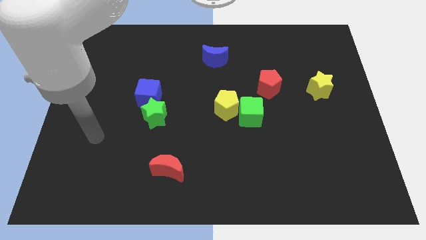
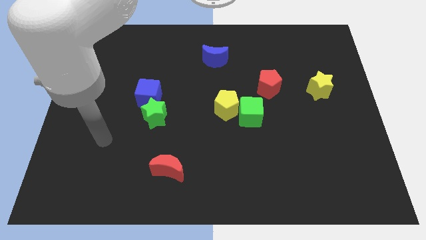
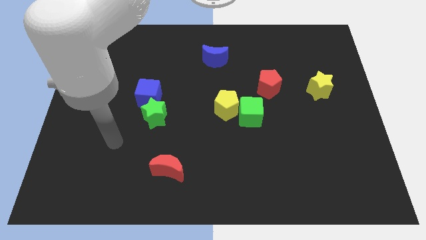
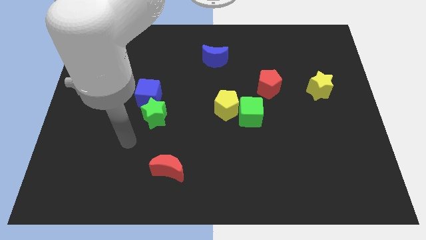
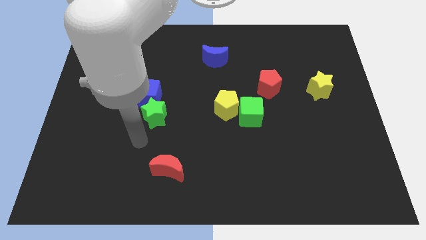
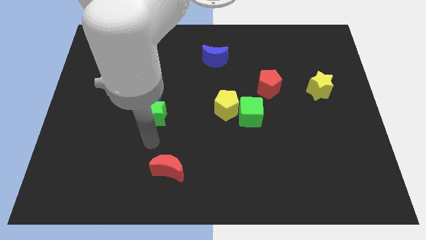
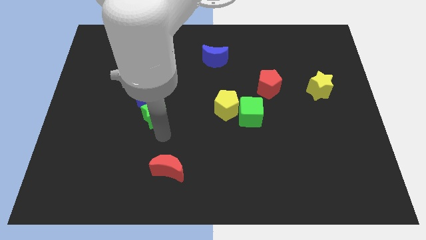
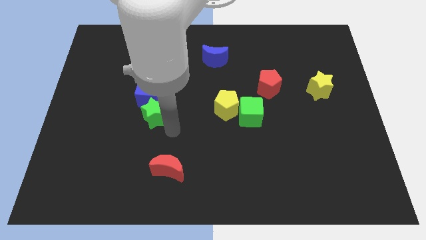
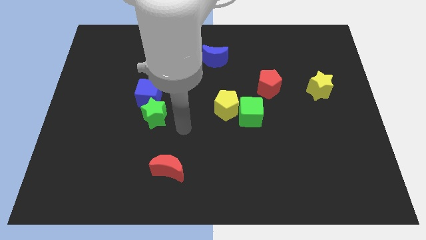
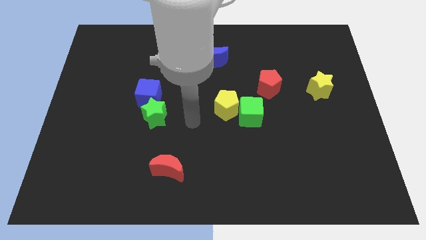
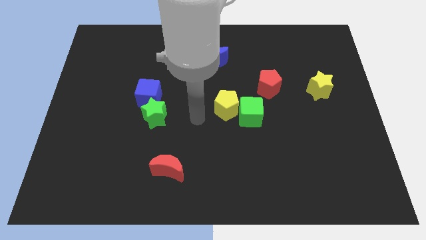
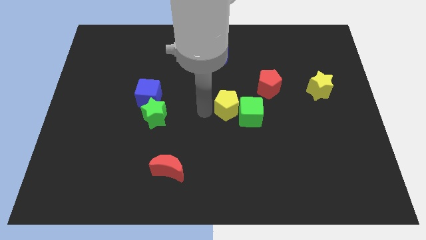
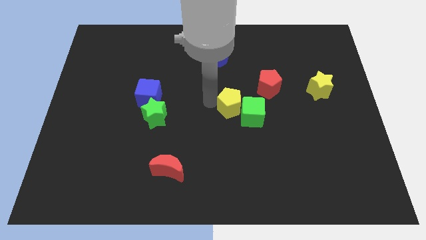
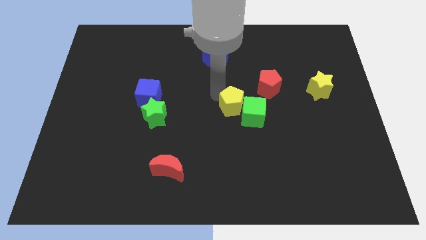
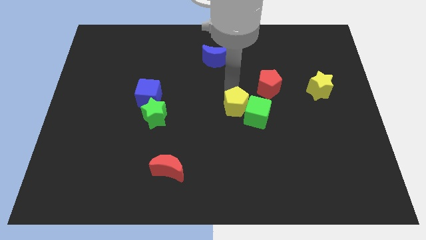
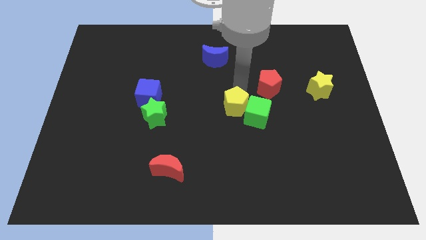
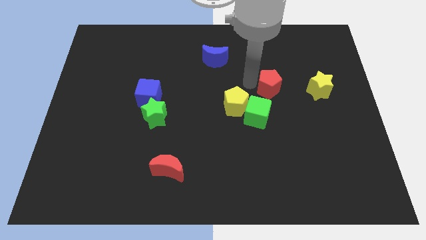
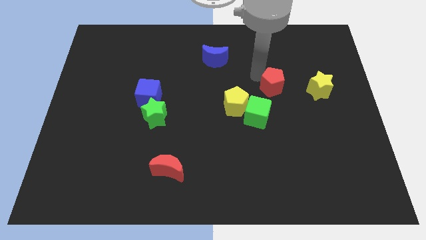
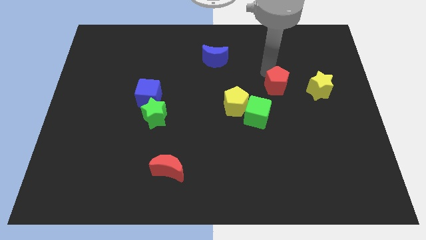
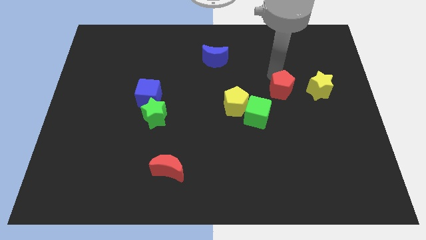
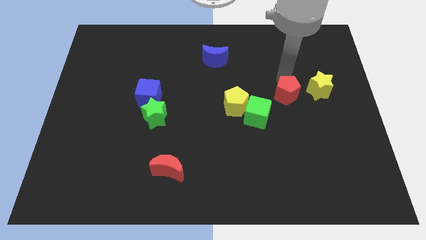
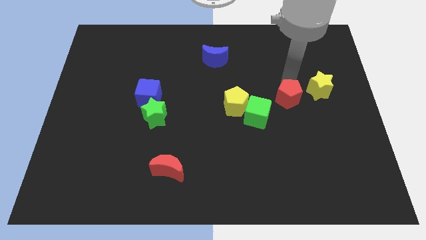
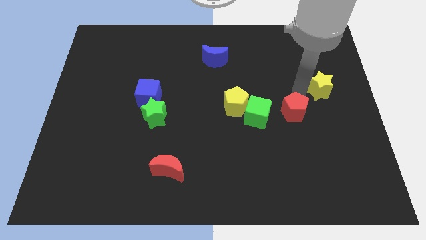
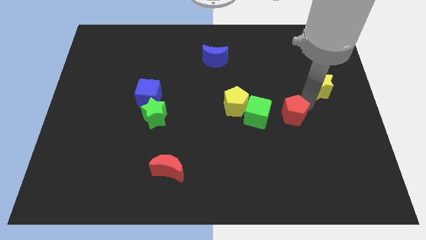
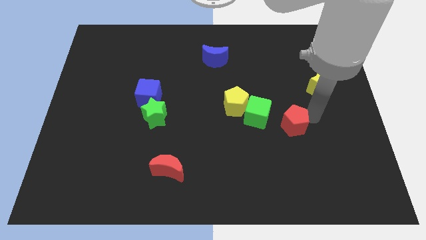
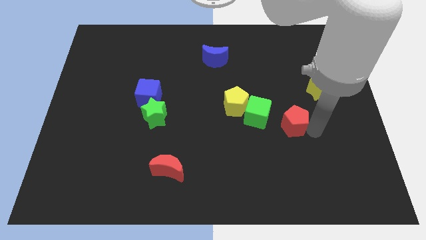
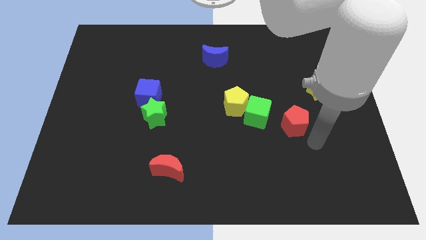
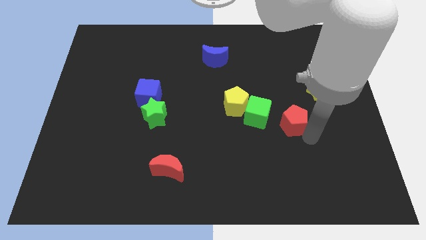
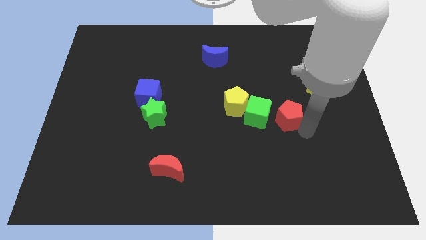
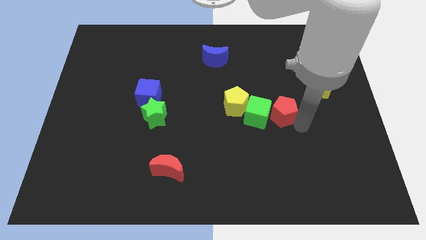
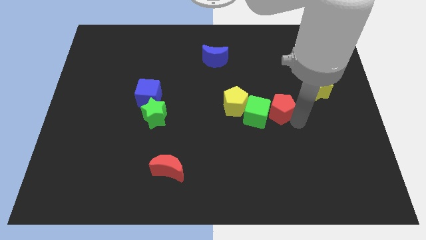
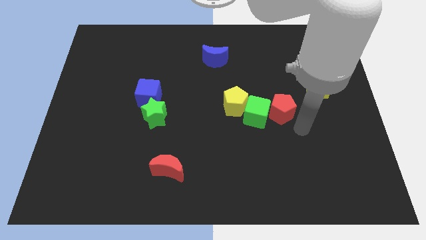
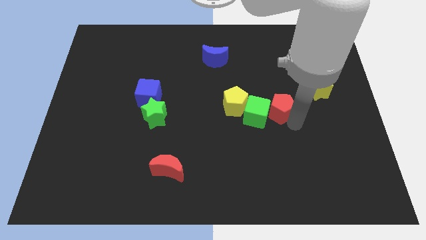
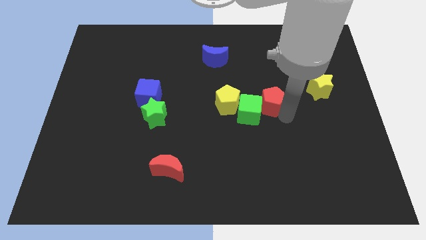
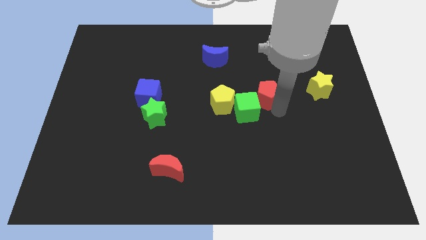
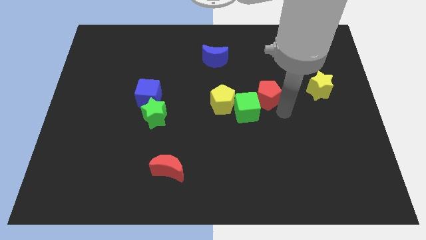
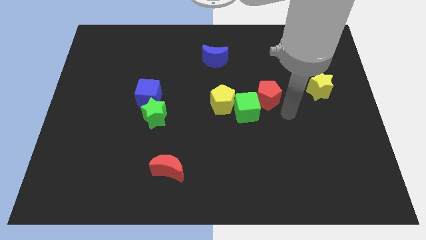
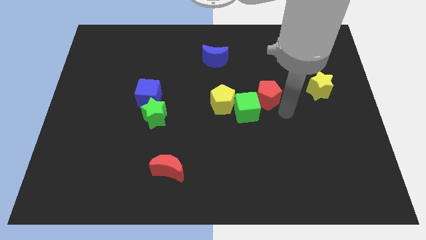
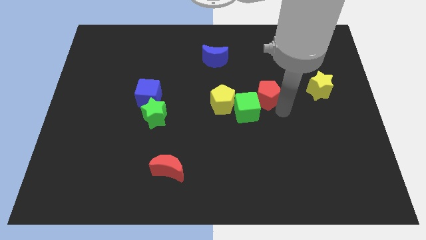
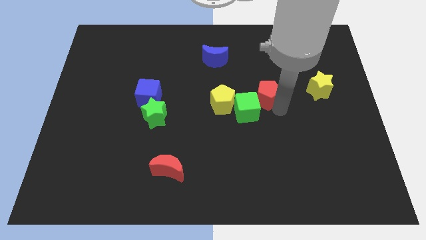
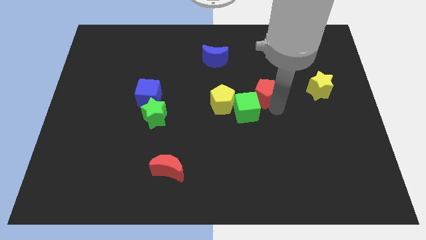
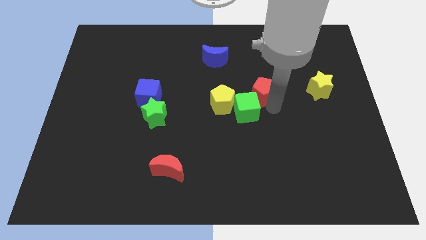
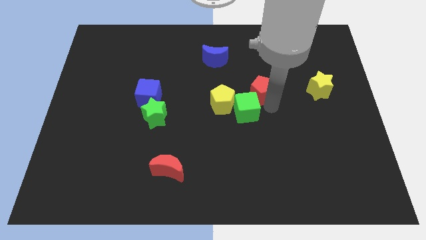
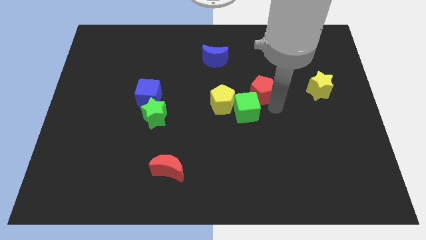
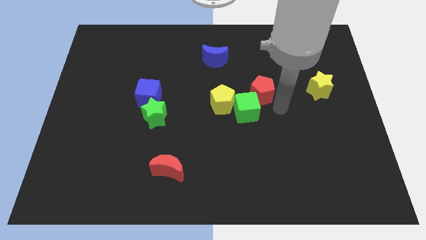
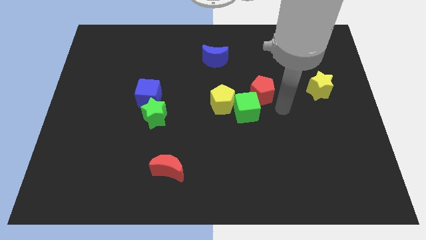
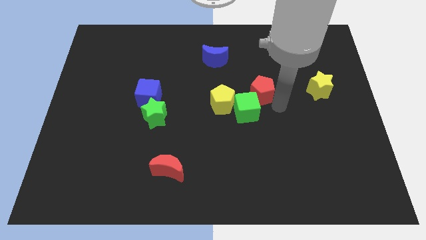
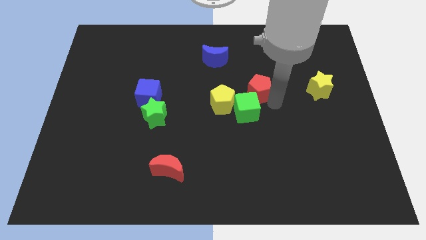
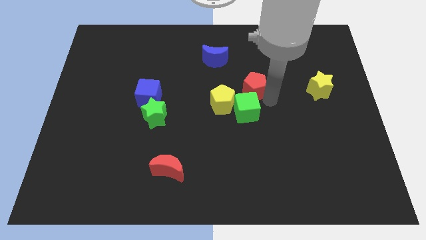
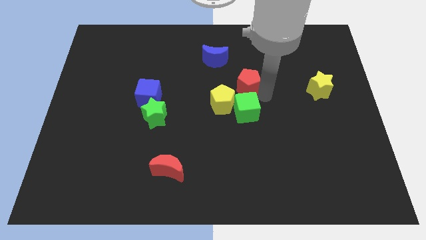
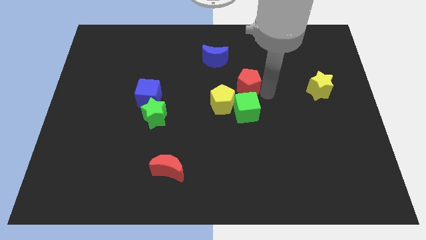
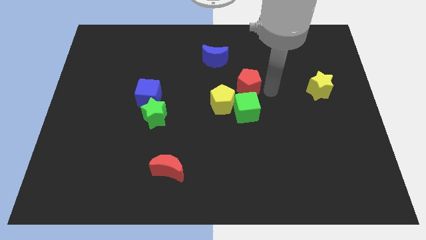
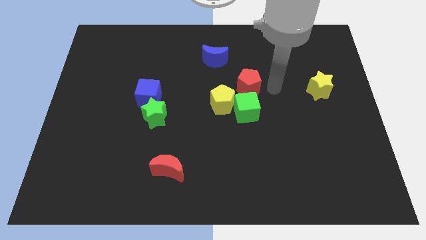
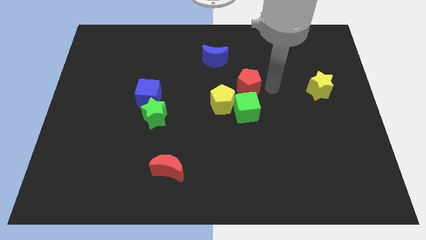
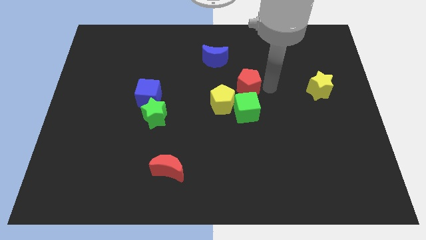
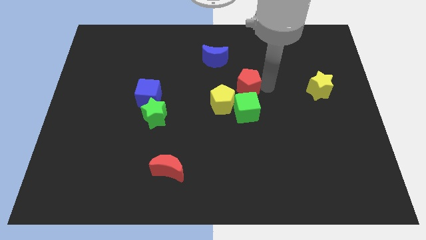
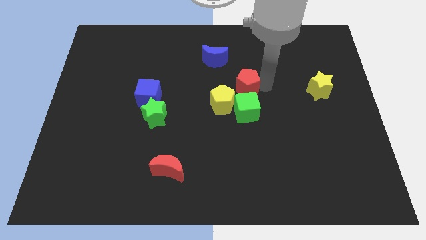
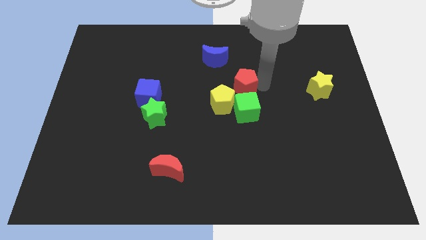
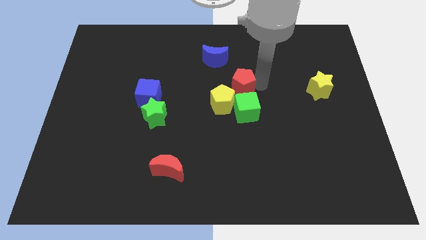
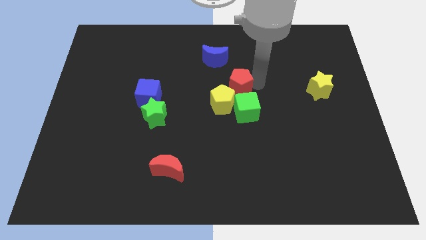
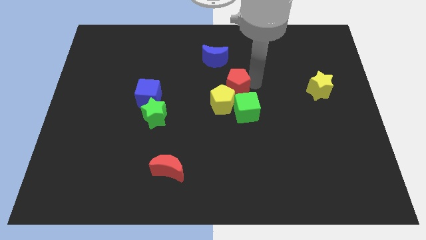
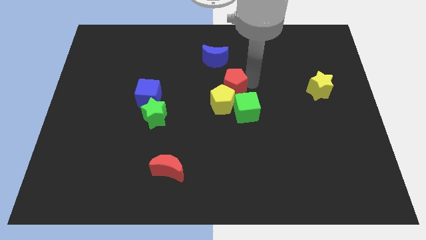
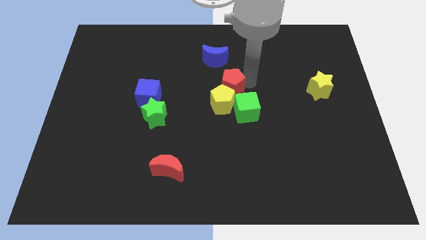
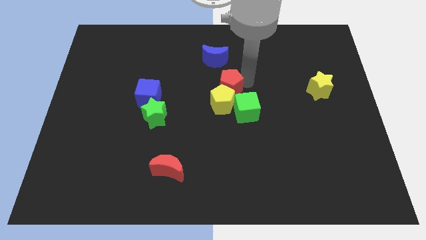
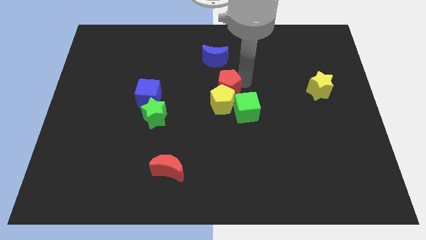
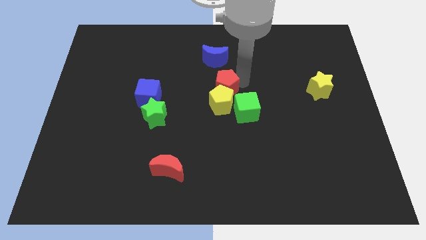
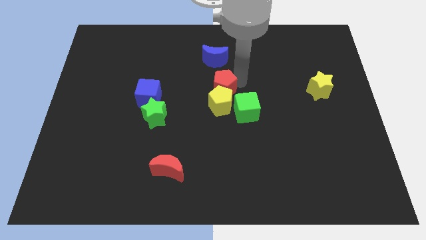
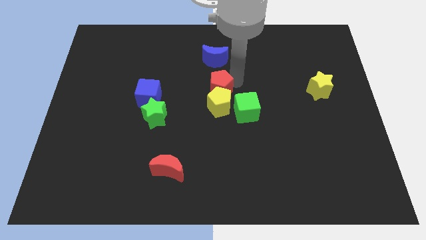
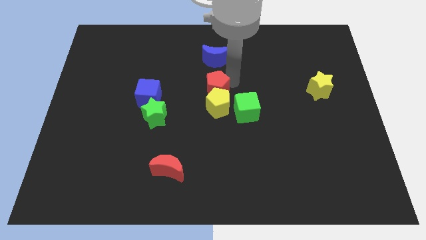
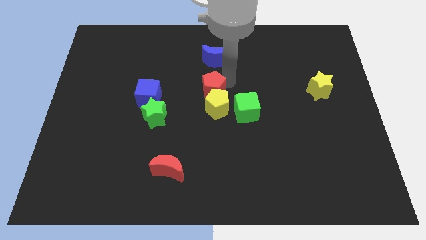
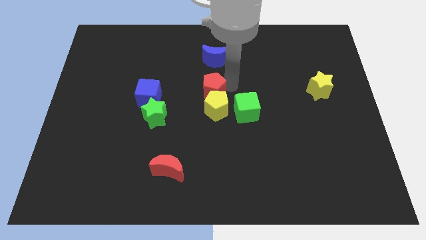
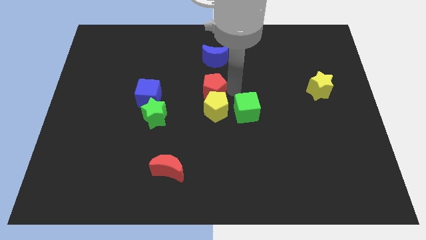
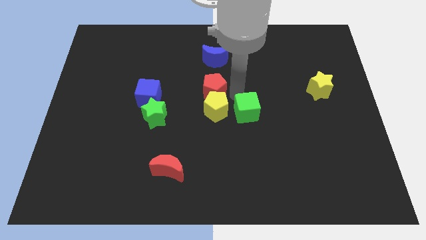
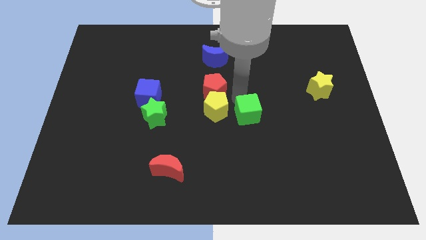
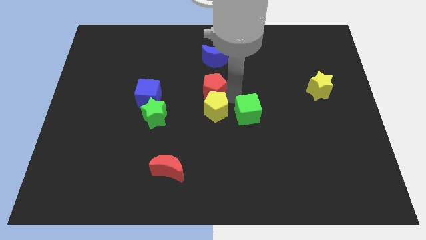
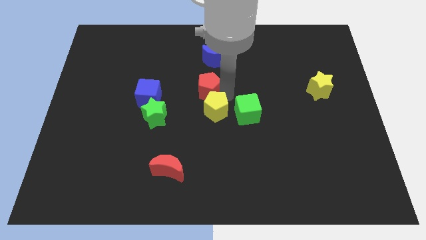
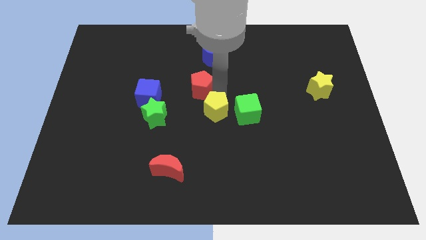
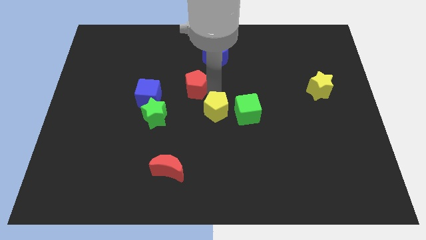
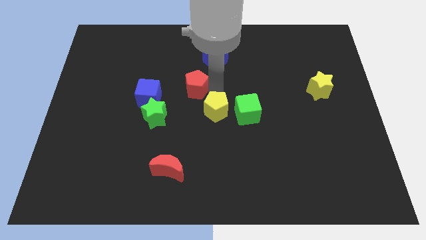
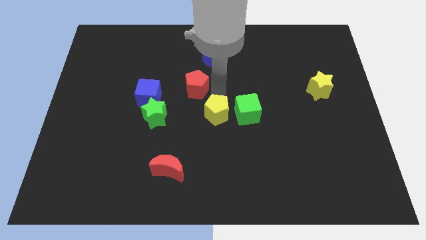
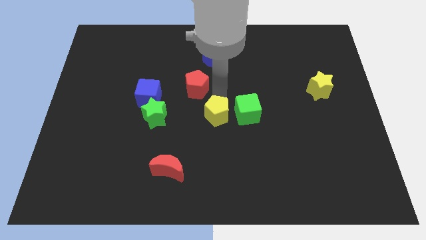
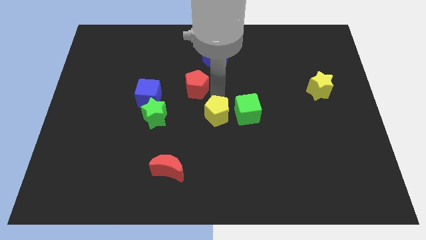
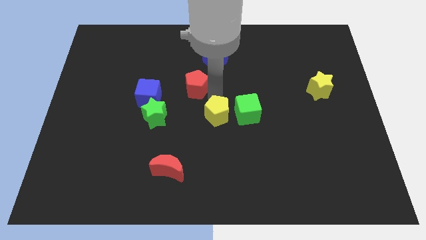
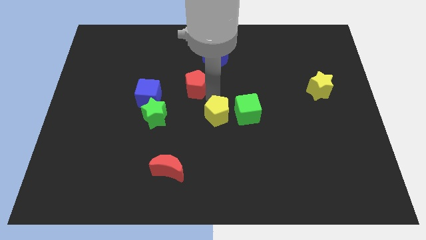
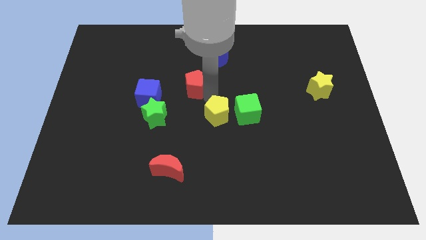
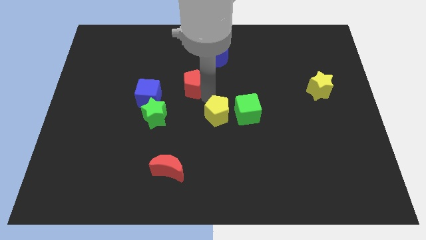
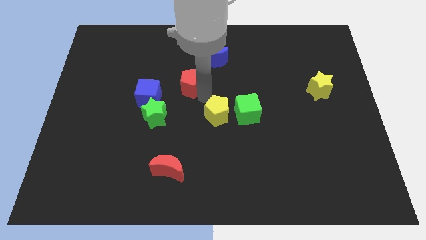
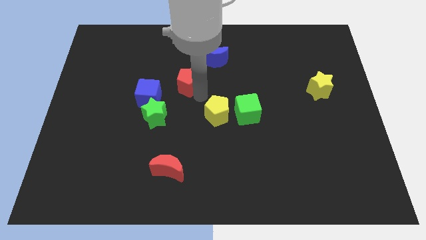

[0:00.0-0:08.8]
move the red pentagon to the left
